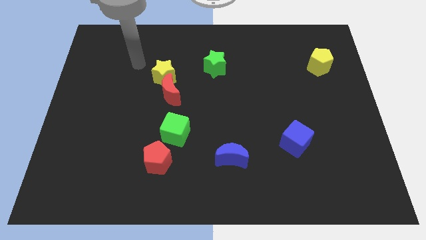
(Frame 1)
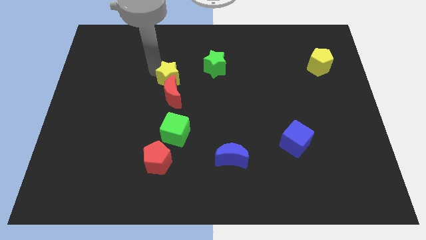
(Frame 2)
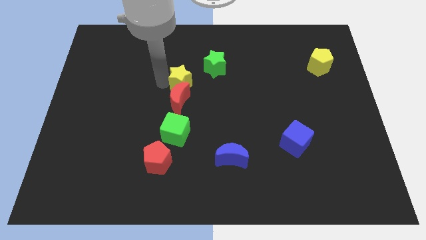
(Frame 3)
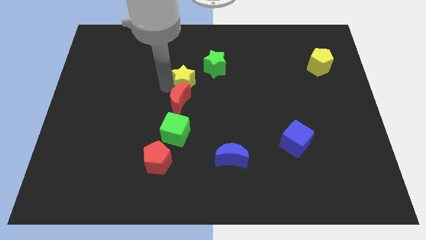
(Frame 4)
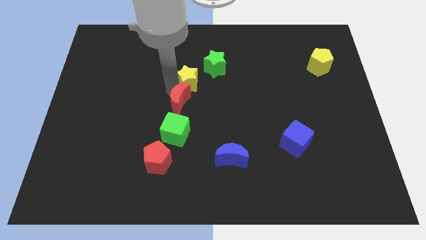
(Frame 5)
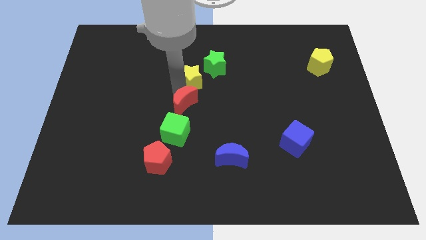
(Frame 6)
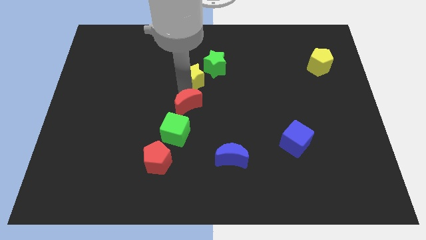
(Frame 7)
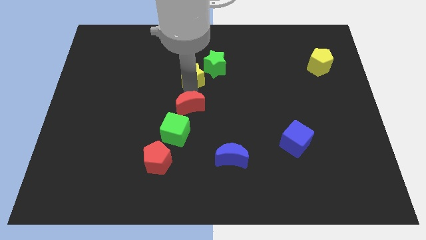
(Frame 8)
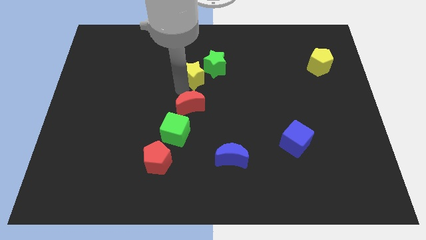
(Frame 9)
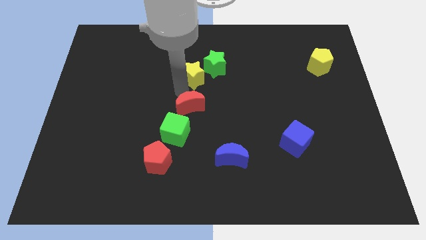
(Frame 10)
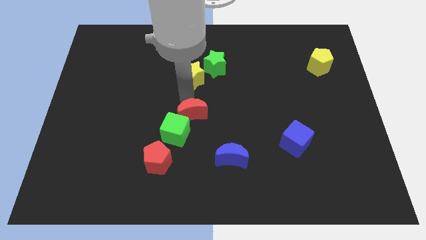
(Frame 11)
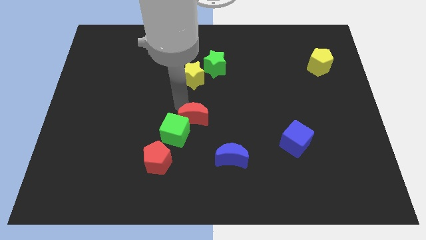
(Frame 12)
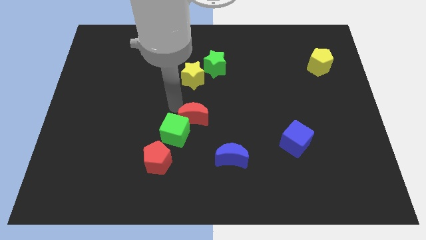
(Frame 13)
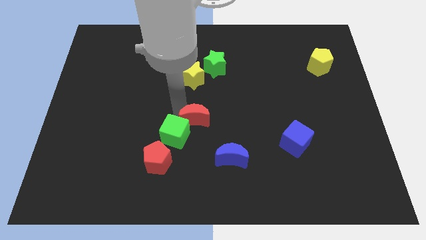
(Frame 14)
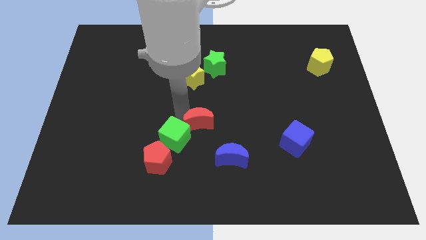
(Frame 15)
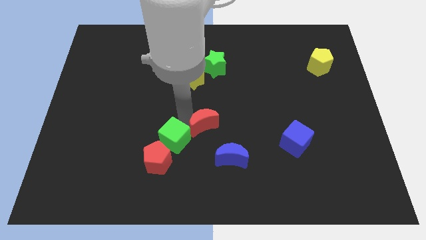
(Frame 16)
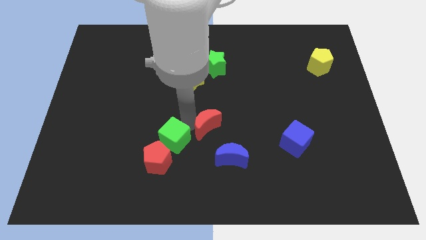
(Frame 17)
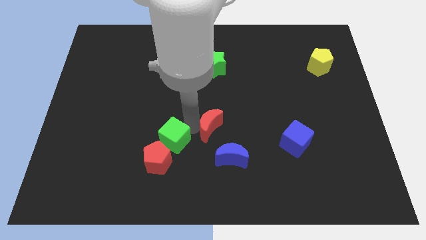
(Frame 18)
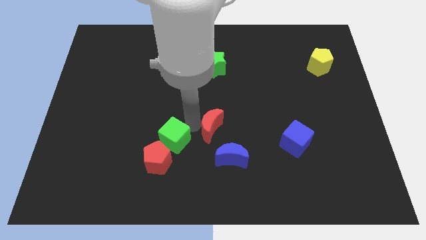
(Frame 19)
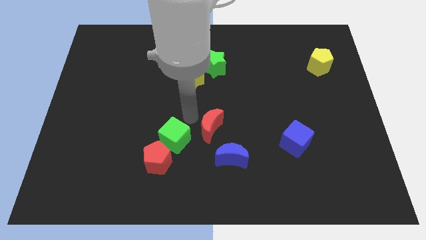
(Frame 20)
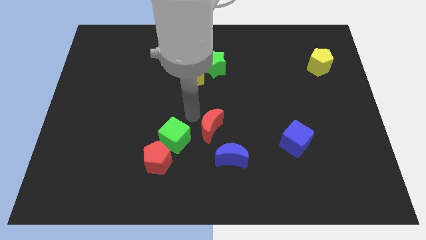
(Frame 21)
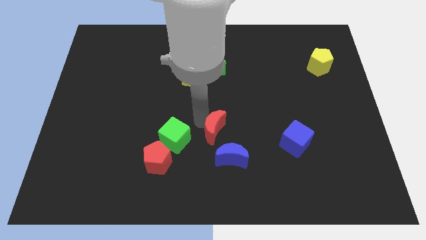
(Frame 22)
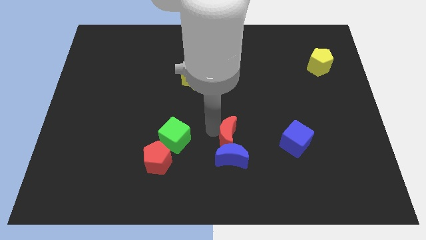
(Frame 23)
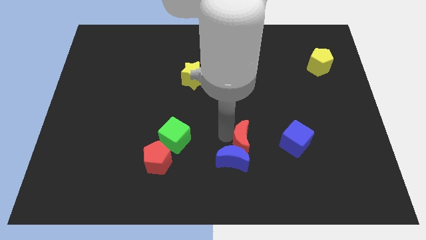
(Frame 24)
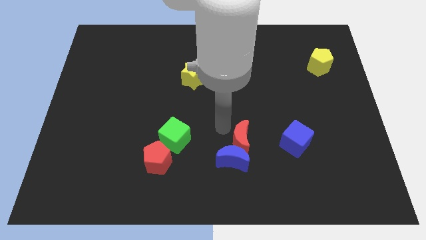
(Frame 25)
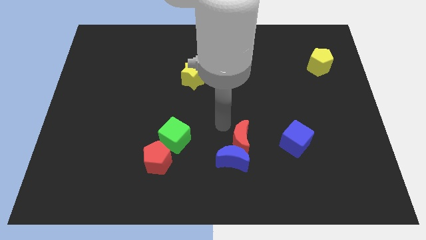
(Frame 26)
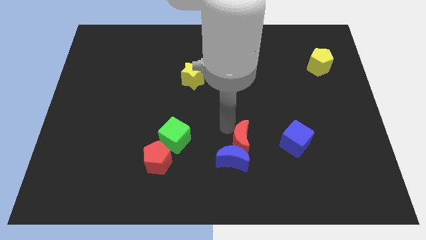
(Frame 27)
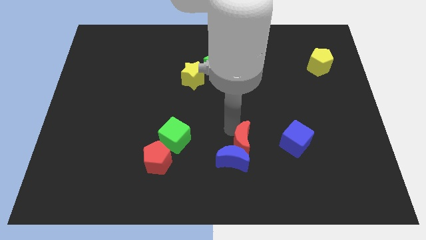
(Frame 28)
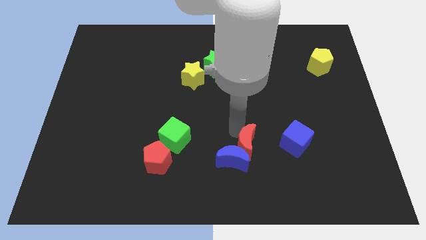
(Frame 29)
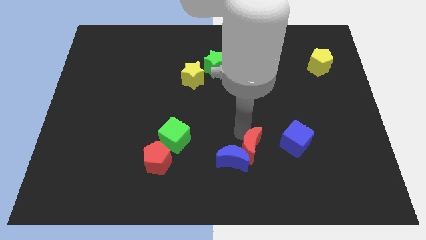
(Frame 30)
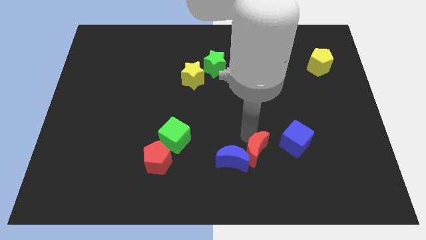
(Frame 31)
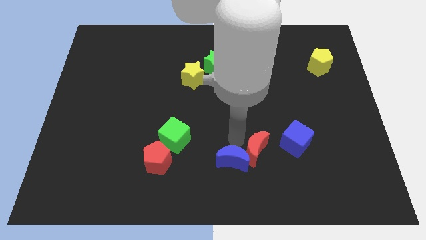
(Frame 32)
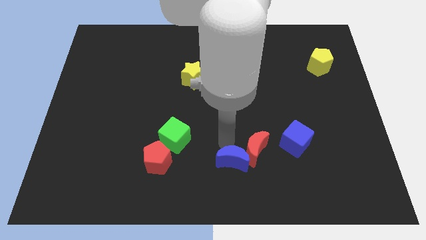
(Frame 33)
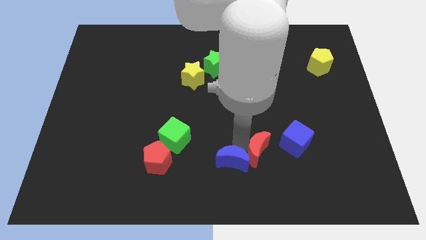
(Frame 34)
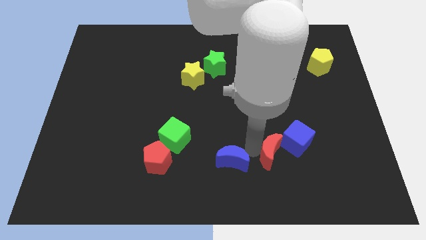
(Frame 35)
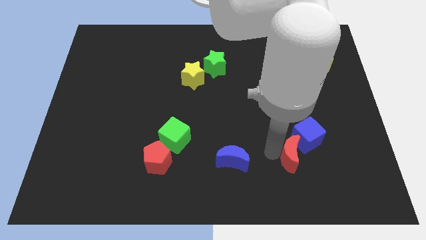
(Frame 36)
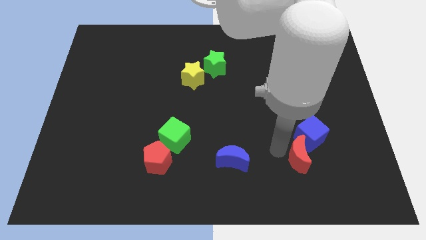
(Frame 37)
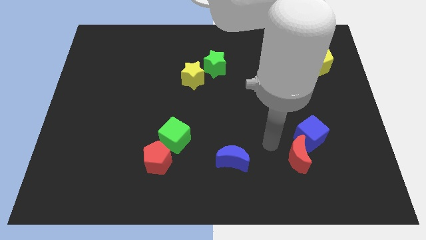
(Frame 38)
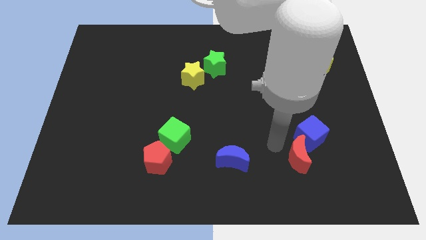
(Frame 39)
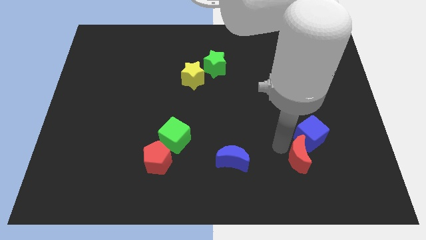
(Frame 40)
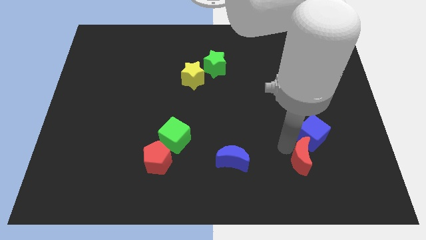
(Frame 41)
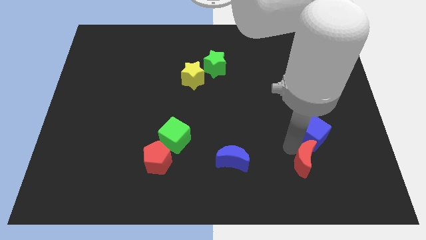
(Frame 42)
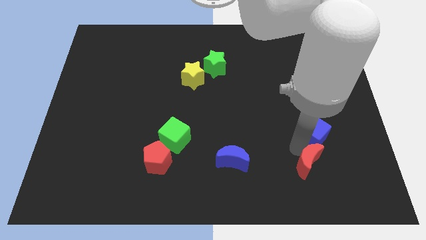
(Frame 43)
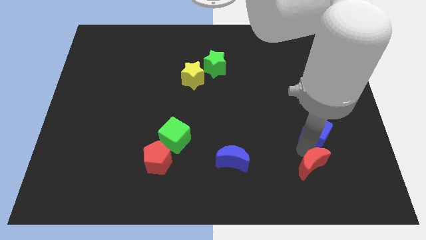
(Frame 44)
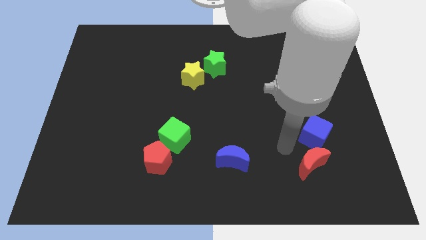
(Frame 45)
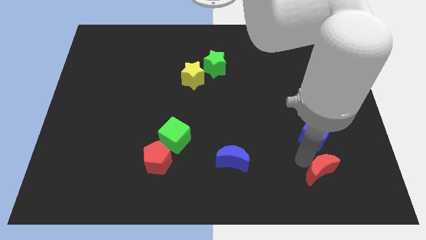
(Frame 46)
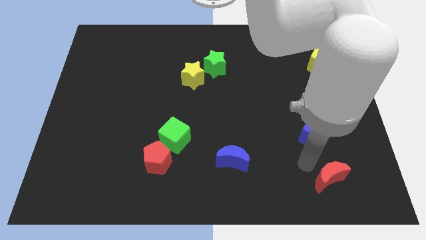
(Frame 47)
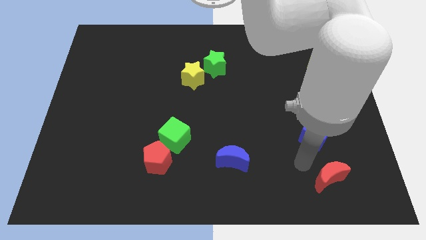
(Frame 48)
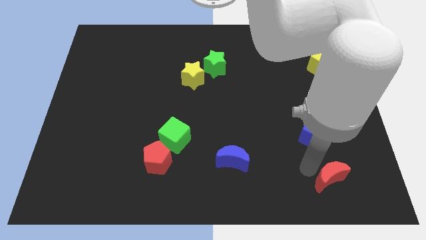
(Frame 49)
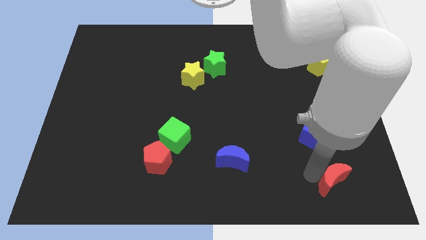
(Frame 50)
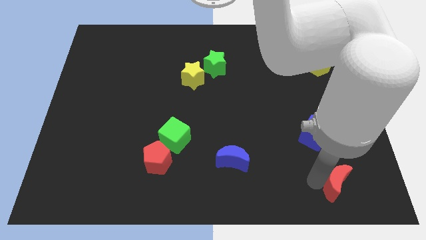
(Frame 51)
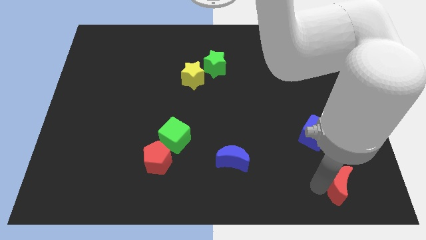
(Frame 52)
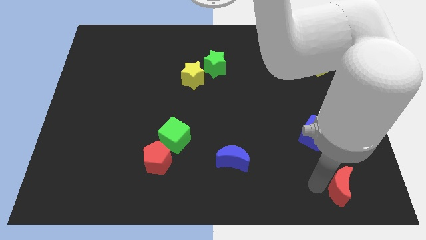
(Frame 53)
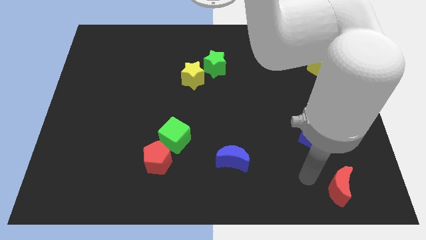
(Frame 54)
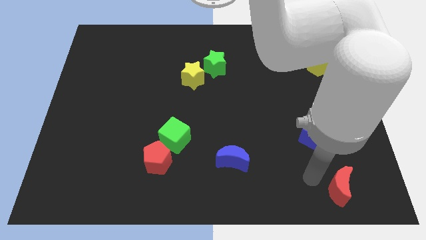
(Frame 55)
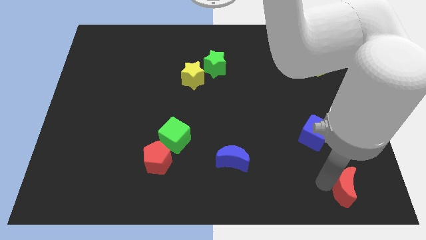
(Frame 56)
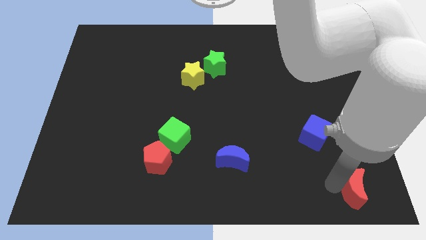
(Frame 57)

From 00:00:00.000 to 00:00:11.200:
put the red moon to the bottom right
